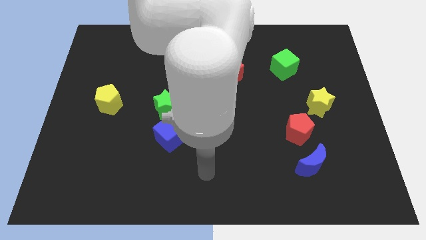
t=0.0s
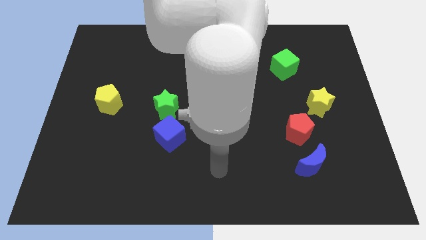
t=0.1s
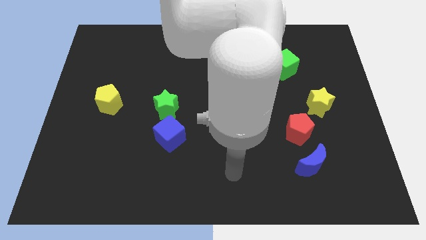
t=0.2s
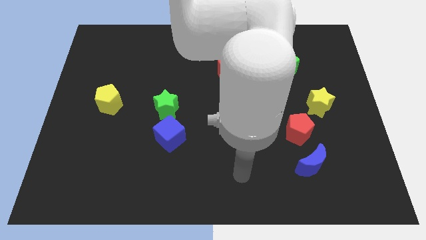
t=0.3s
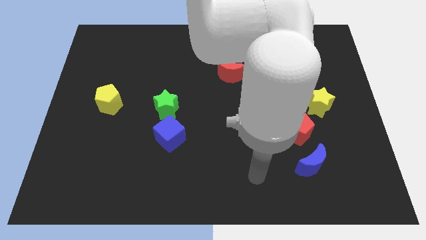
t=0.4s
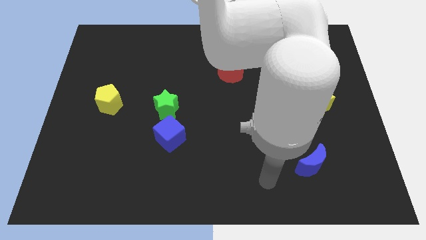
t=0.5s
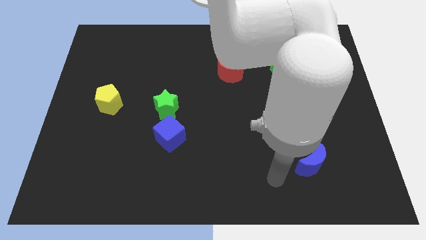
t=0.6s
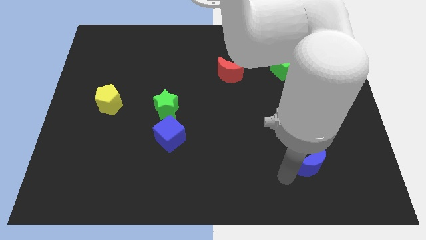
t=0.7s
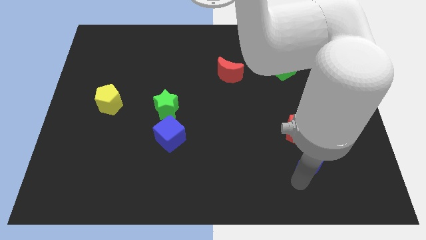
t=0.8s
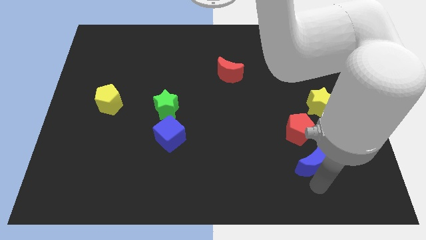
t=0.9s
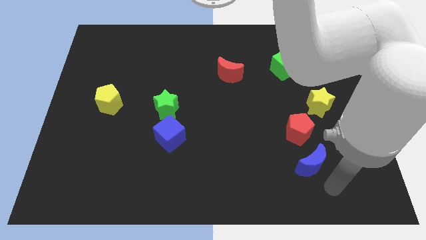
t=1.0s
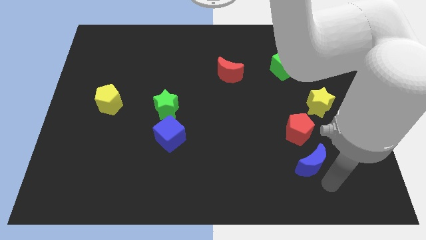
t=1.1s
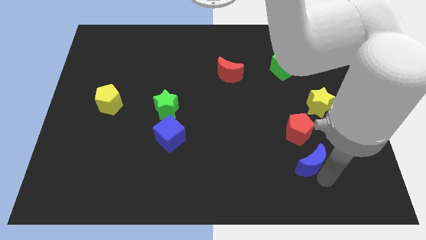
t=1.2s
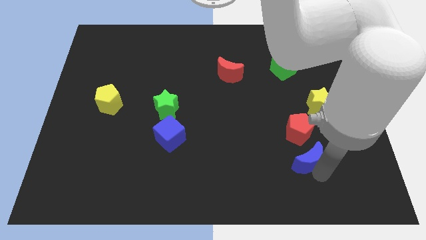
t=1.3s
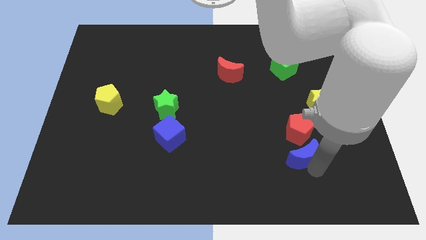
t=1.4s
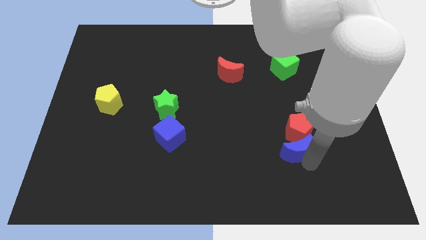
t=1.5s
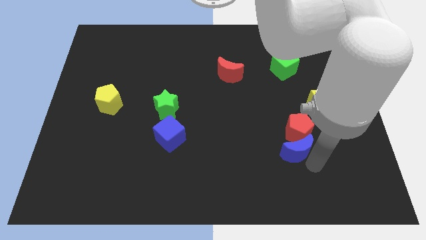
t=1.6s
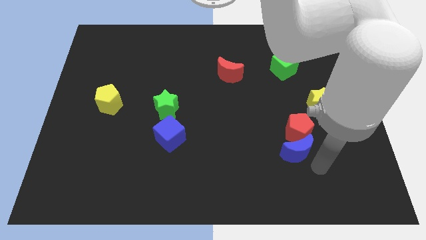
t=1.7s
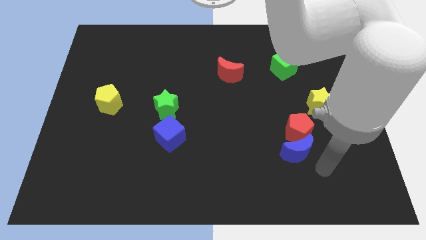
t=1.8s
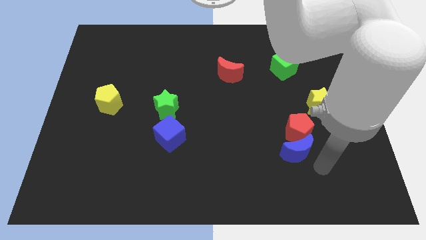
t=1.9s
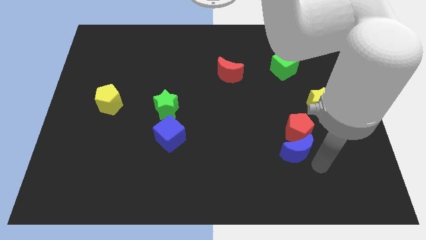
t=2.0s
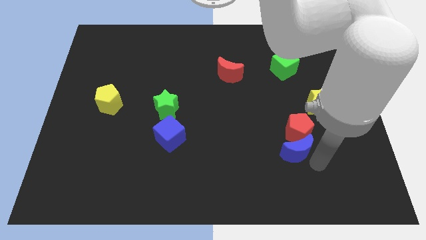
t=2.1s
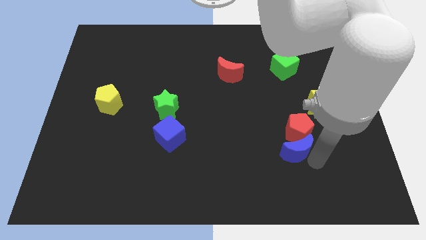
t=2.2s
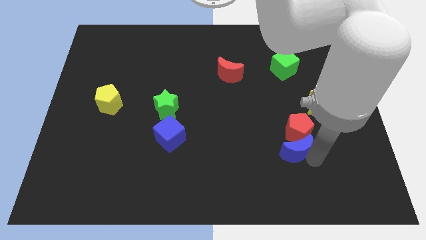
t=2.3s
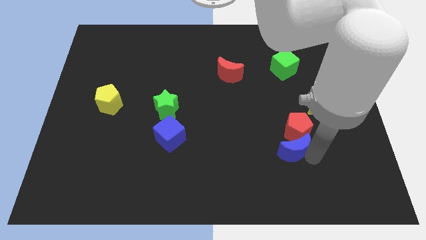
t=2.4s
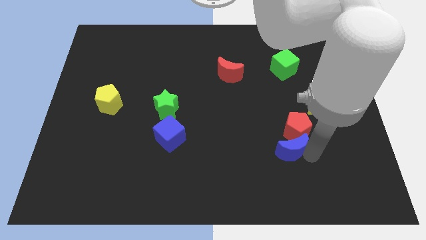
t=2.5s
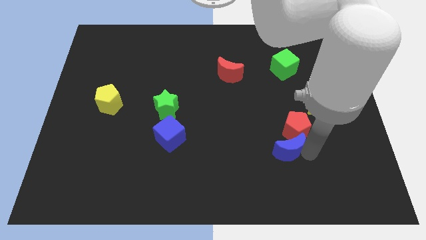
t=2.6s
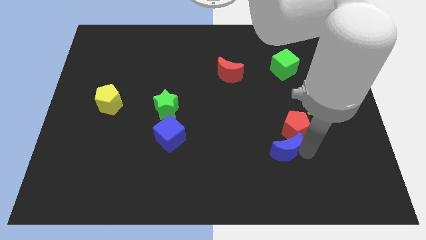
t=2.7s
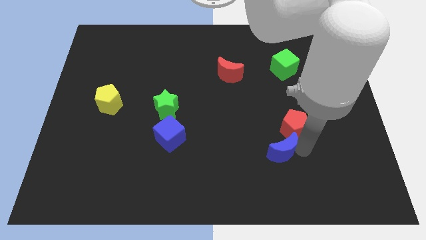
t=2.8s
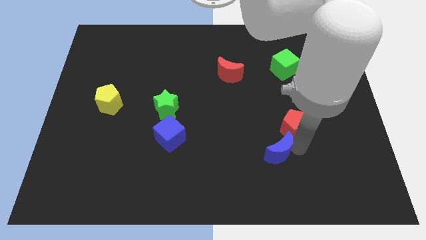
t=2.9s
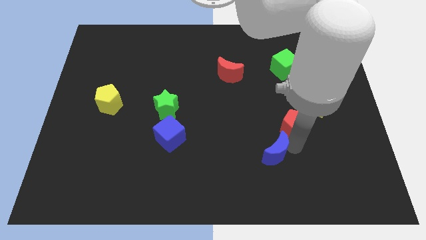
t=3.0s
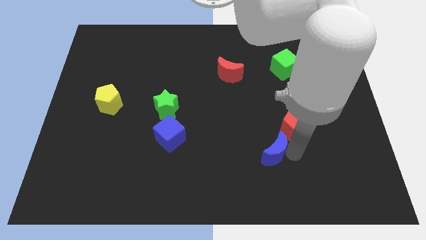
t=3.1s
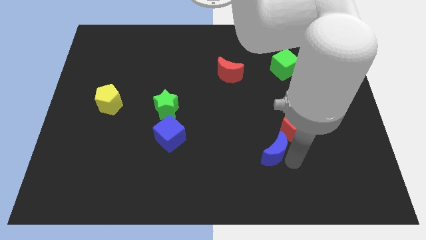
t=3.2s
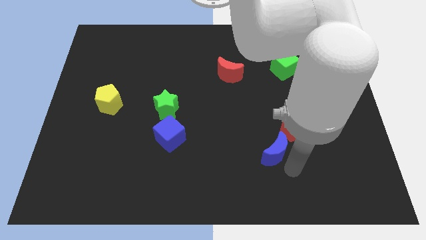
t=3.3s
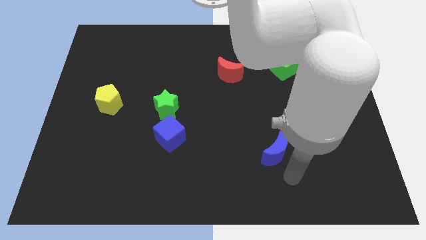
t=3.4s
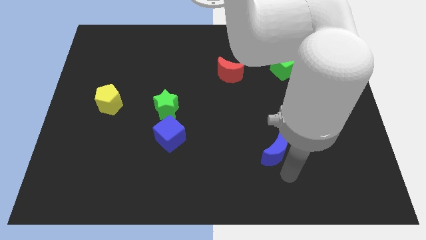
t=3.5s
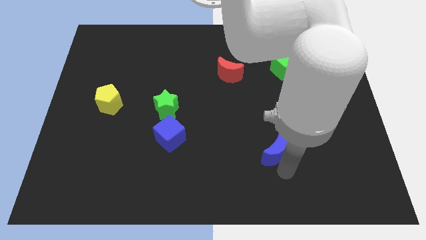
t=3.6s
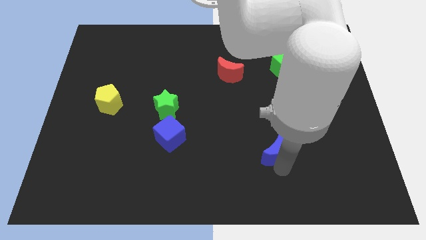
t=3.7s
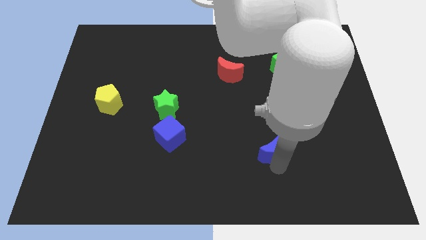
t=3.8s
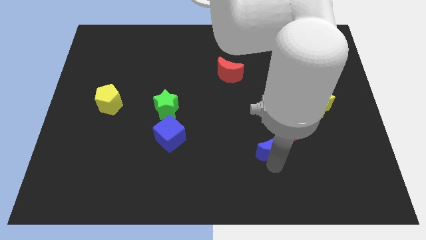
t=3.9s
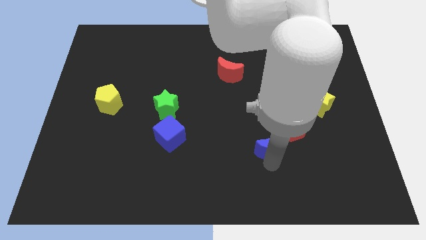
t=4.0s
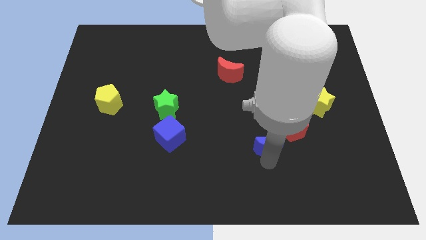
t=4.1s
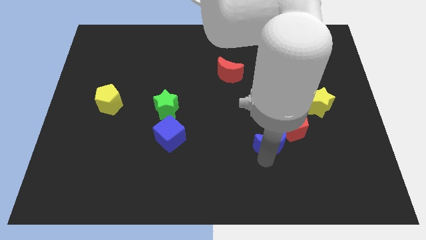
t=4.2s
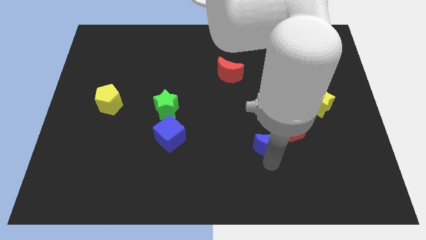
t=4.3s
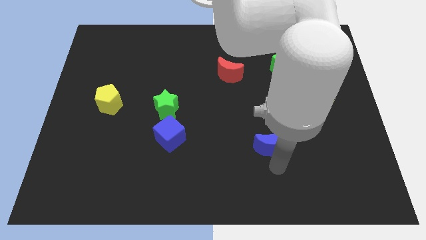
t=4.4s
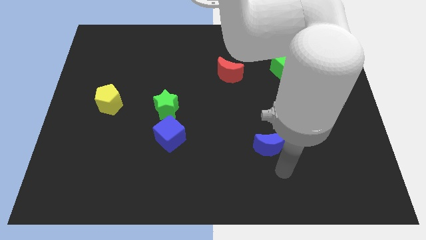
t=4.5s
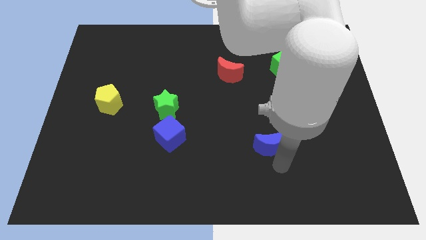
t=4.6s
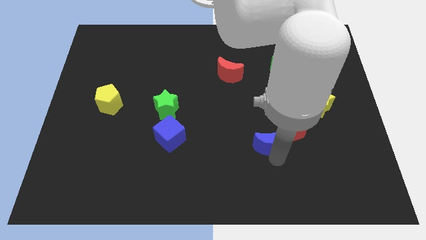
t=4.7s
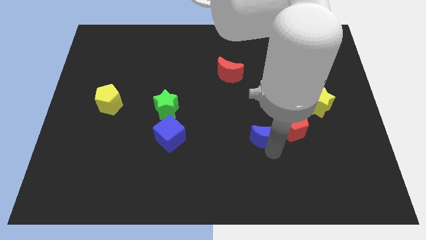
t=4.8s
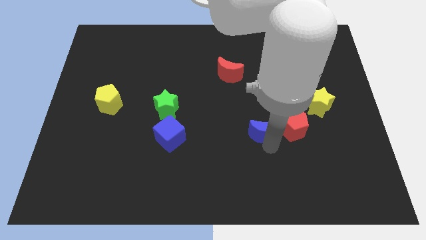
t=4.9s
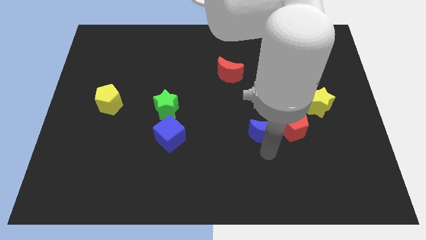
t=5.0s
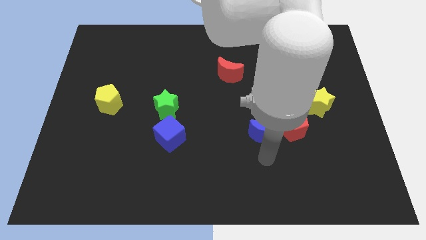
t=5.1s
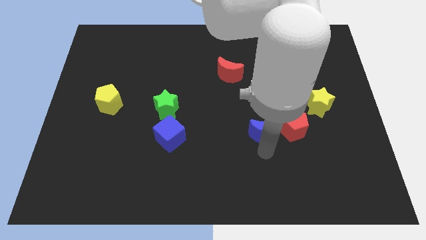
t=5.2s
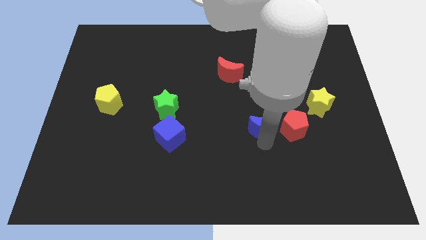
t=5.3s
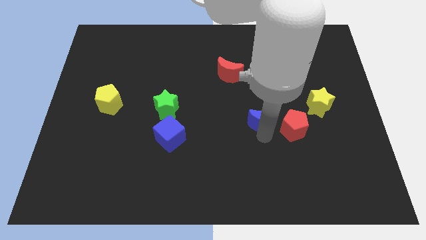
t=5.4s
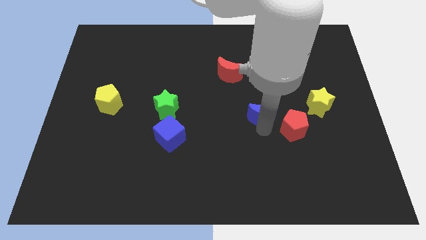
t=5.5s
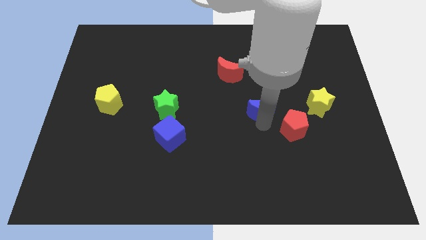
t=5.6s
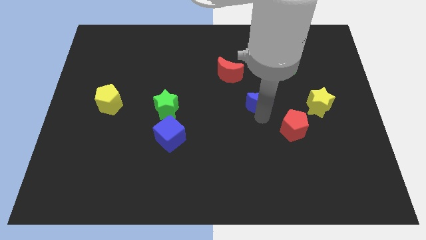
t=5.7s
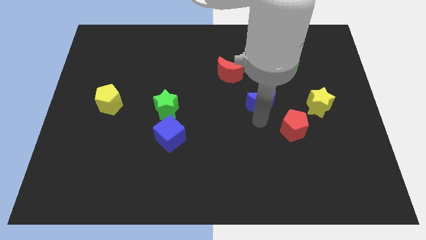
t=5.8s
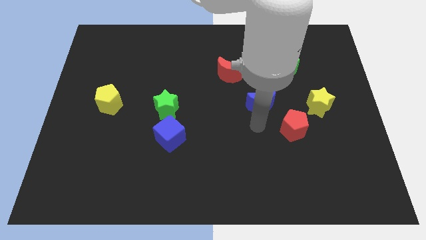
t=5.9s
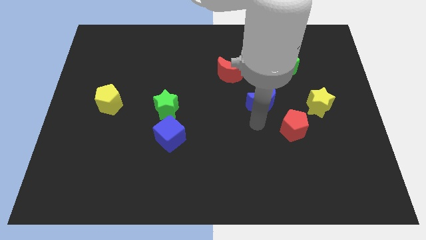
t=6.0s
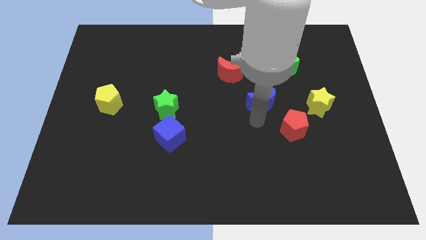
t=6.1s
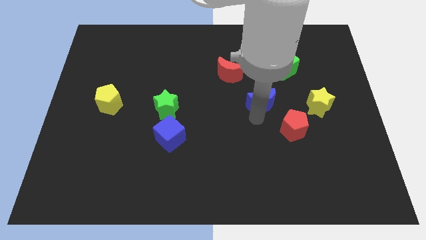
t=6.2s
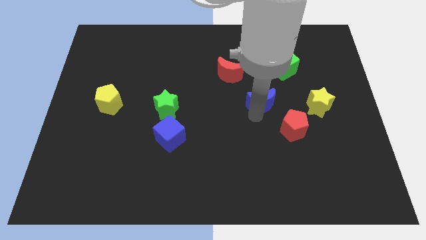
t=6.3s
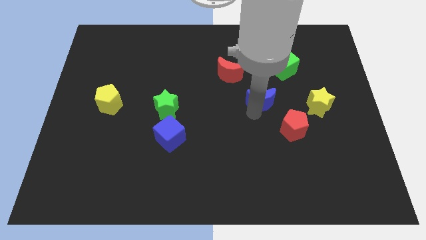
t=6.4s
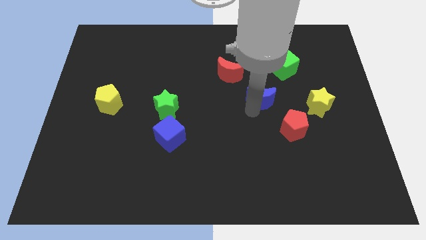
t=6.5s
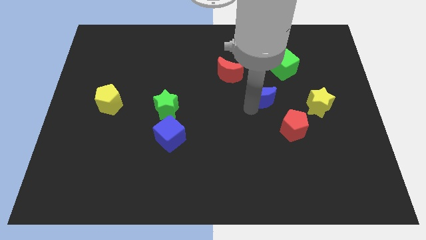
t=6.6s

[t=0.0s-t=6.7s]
slide the blue moon to the bottom left side of the green cube

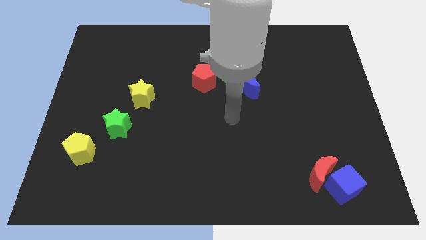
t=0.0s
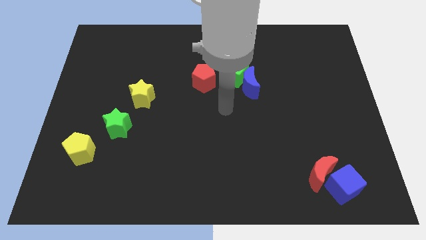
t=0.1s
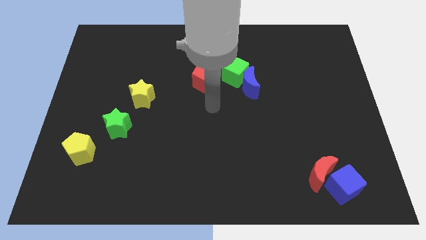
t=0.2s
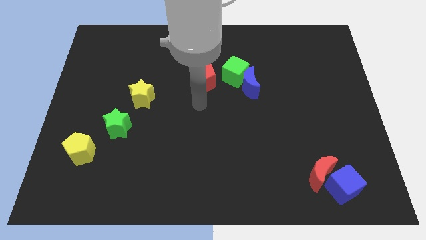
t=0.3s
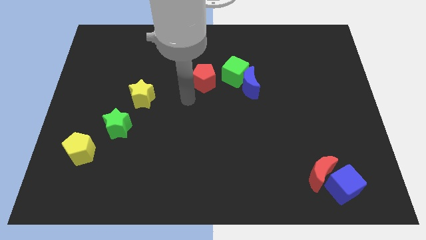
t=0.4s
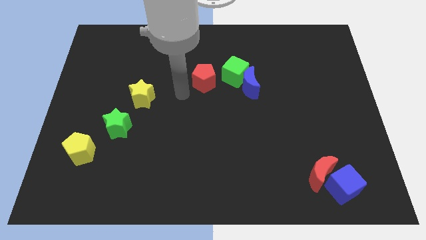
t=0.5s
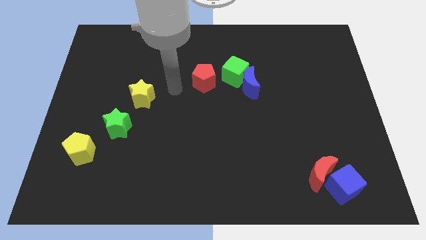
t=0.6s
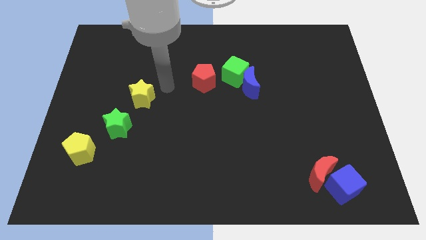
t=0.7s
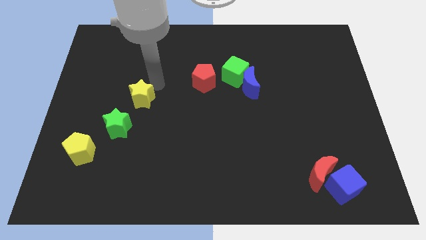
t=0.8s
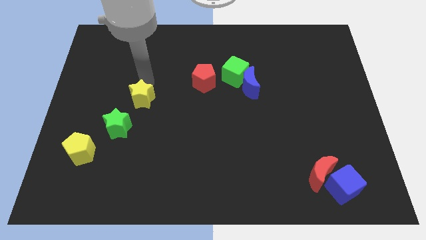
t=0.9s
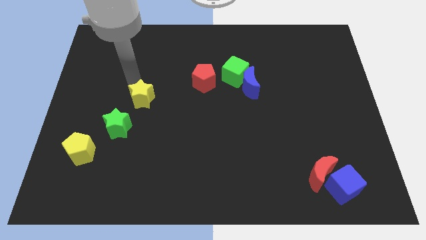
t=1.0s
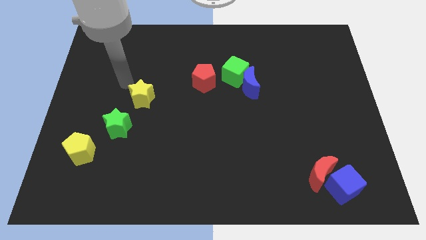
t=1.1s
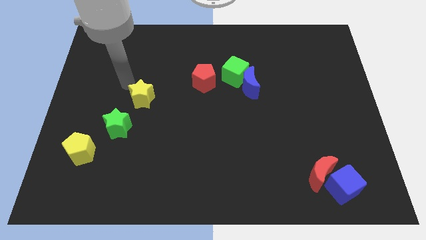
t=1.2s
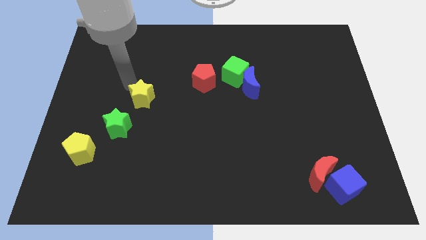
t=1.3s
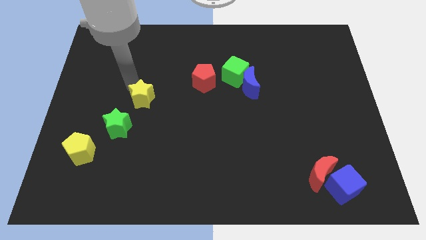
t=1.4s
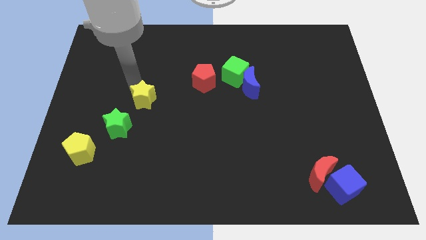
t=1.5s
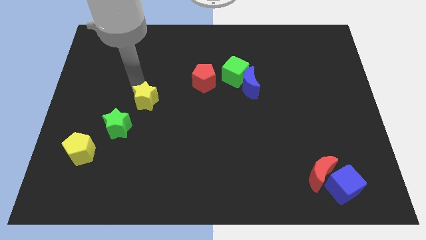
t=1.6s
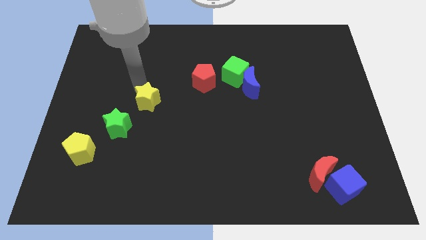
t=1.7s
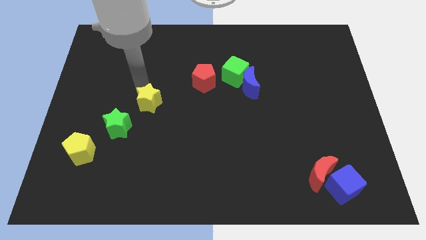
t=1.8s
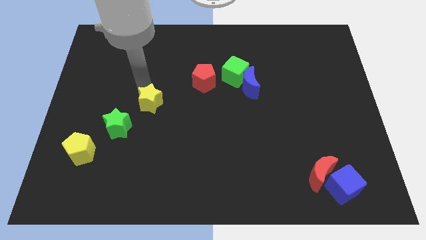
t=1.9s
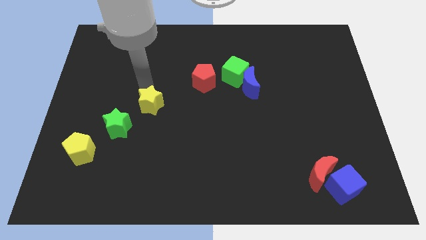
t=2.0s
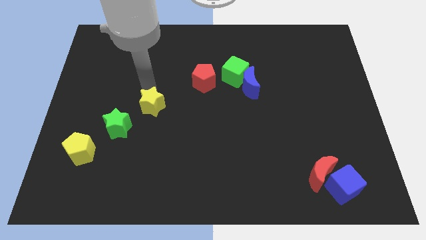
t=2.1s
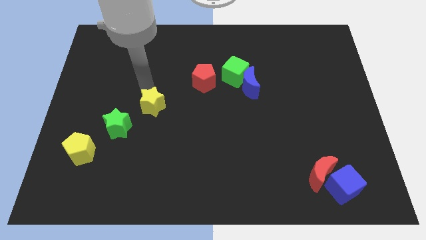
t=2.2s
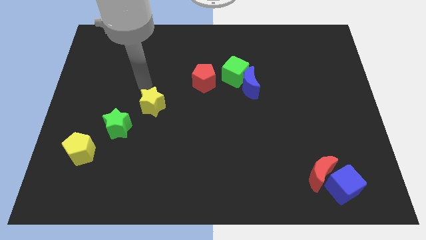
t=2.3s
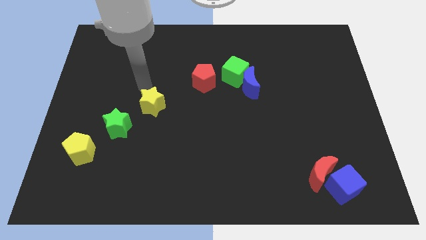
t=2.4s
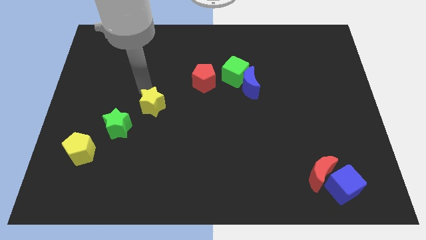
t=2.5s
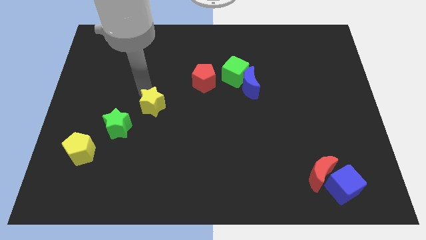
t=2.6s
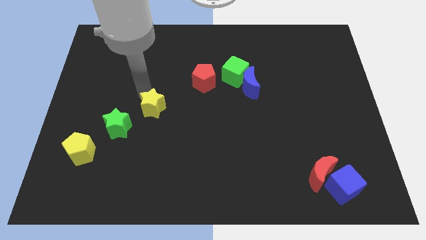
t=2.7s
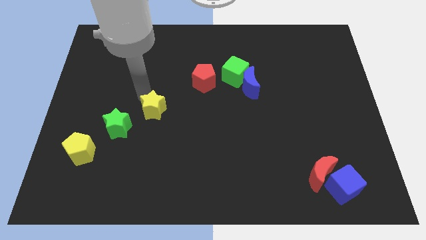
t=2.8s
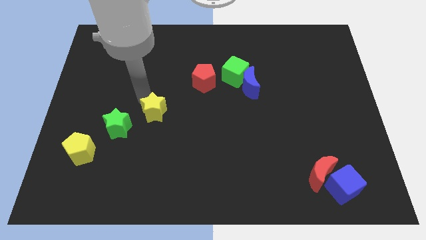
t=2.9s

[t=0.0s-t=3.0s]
slide the yellow star to the right of the green star
